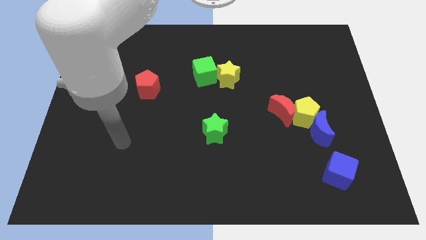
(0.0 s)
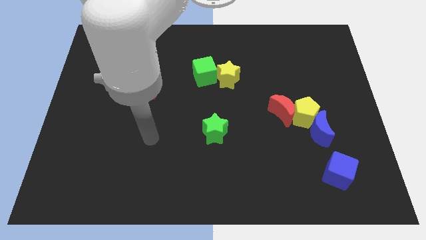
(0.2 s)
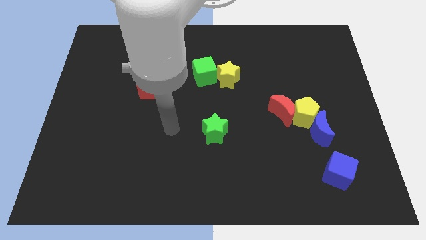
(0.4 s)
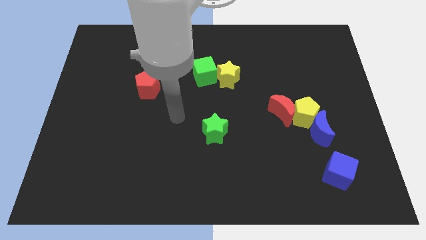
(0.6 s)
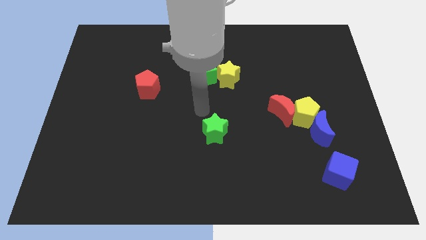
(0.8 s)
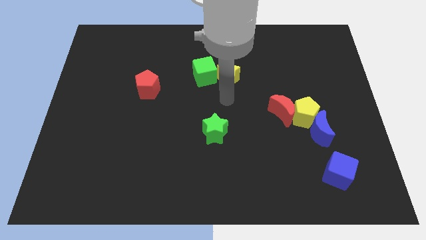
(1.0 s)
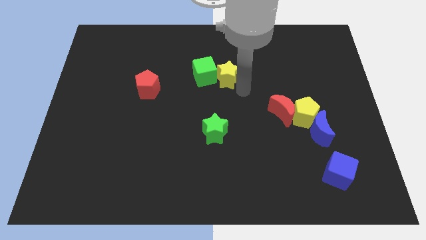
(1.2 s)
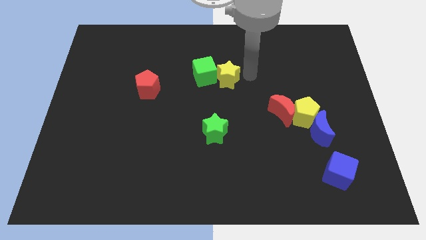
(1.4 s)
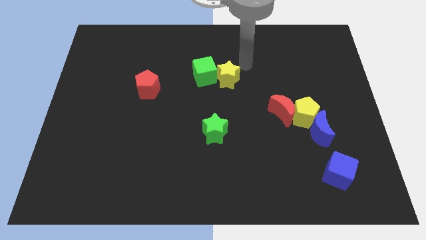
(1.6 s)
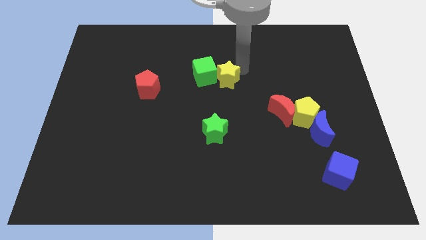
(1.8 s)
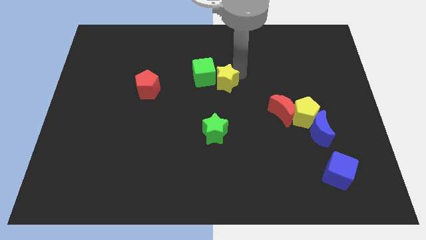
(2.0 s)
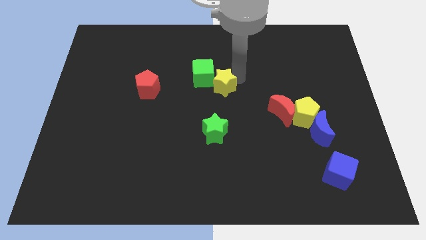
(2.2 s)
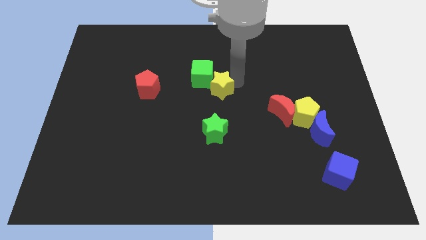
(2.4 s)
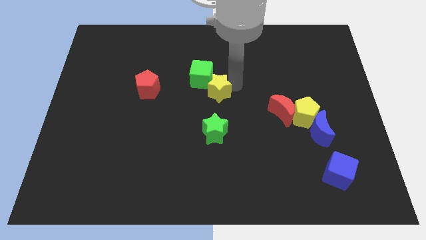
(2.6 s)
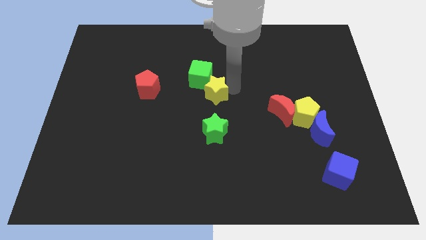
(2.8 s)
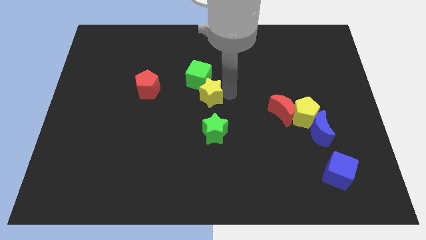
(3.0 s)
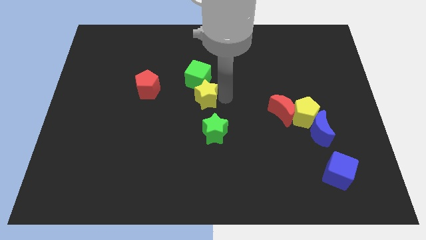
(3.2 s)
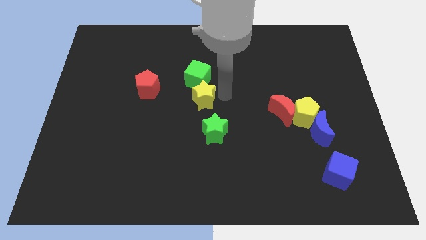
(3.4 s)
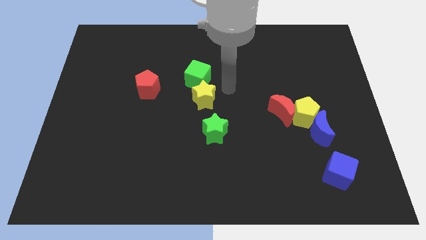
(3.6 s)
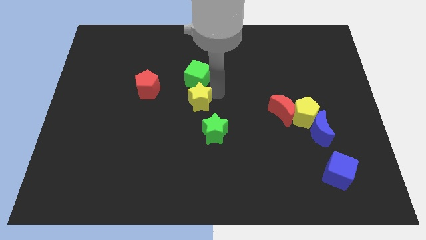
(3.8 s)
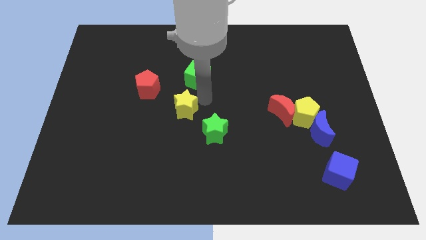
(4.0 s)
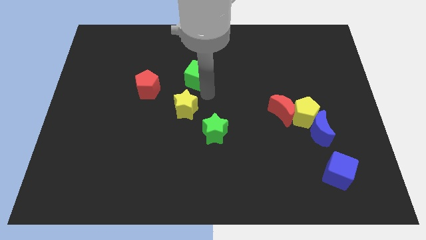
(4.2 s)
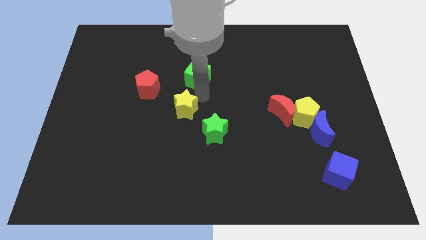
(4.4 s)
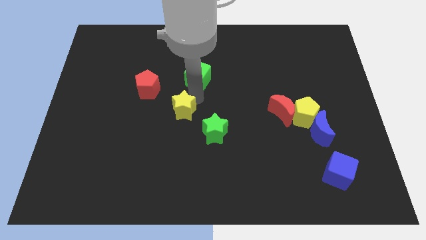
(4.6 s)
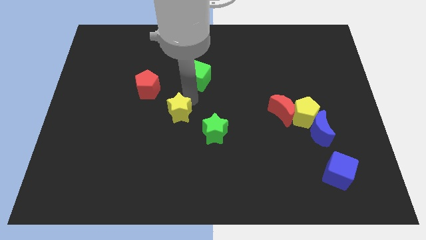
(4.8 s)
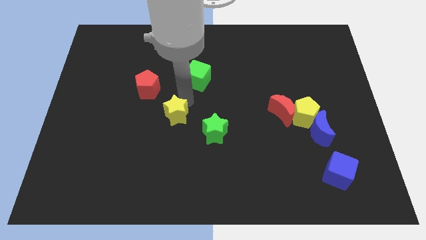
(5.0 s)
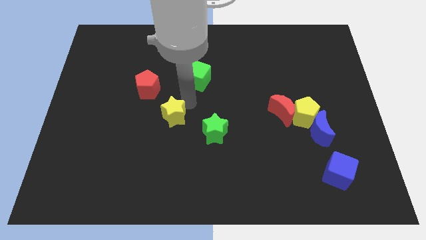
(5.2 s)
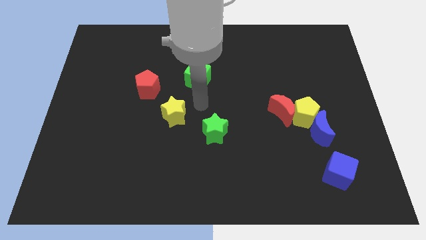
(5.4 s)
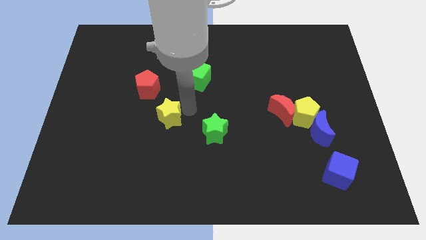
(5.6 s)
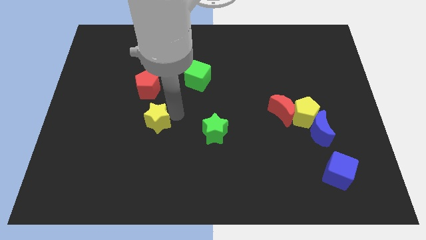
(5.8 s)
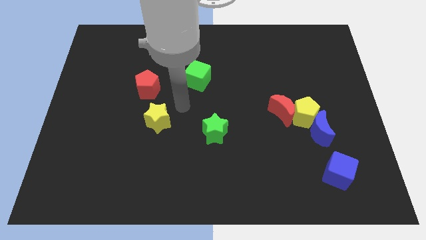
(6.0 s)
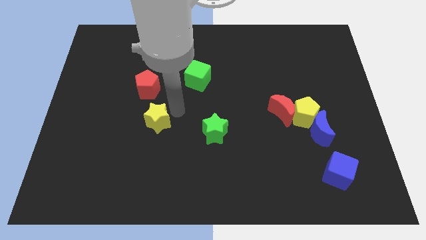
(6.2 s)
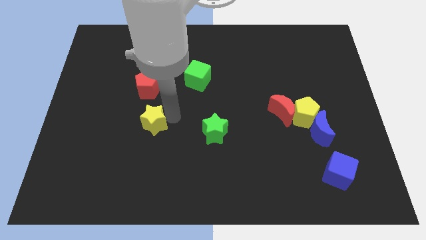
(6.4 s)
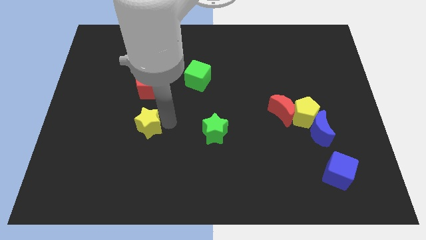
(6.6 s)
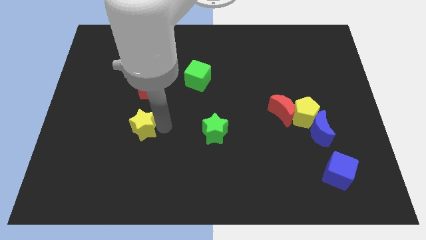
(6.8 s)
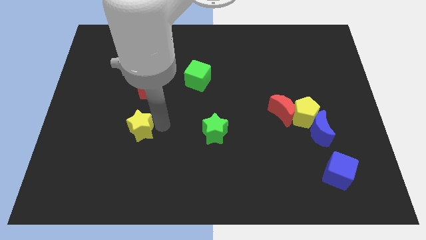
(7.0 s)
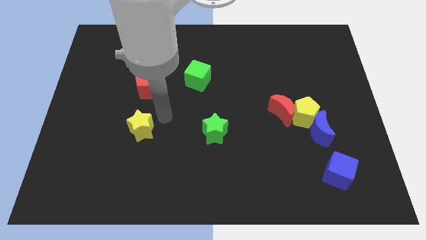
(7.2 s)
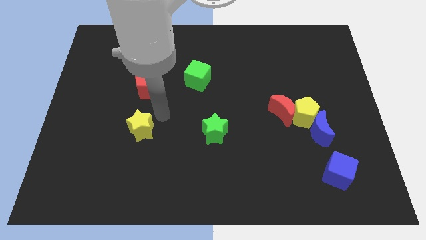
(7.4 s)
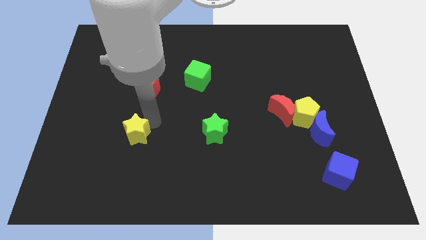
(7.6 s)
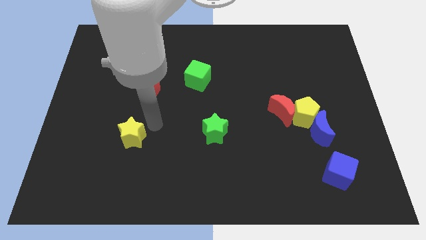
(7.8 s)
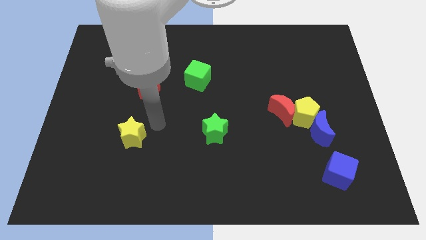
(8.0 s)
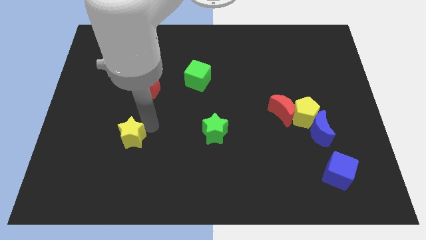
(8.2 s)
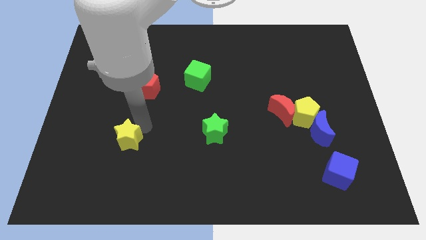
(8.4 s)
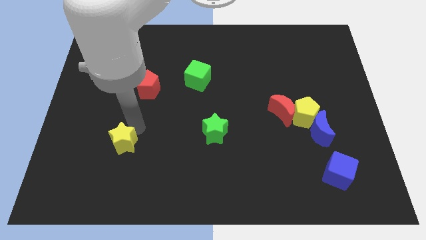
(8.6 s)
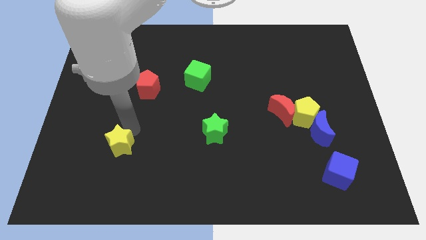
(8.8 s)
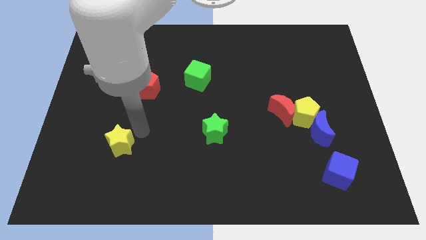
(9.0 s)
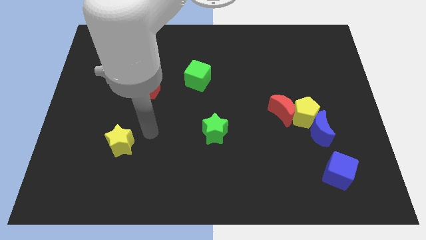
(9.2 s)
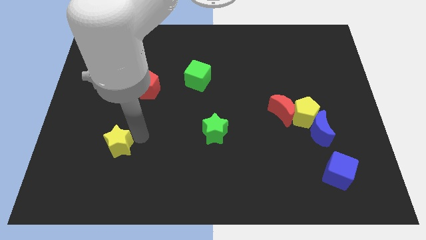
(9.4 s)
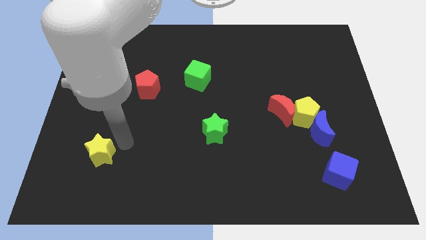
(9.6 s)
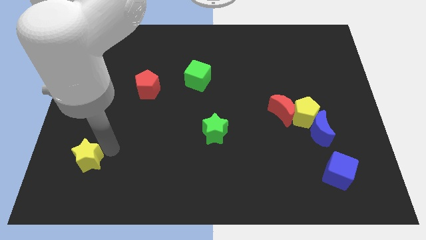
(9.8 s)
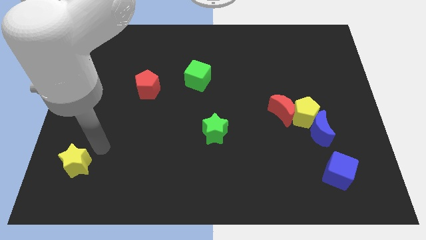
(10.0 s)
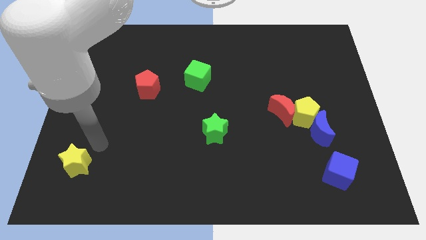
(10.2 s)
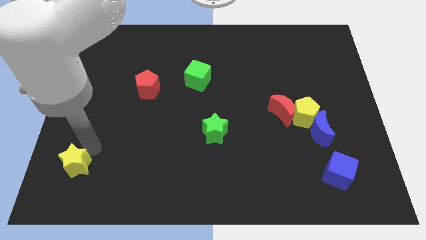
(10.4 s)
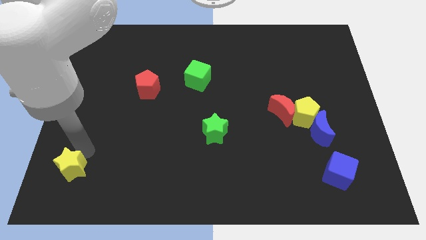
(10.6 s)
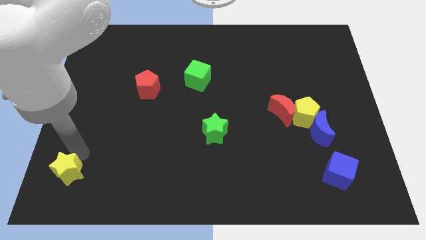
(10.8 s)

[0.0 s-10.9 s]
push the yellow star to the bottom left corner

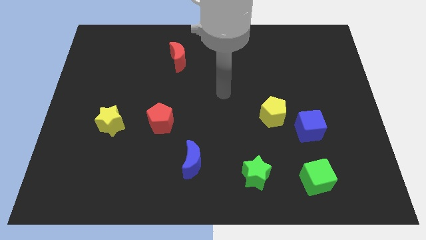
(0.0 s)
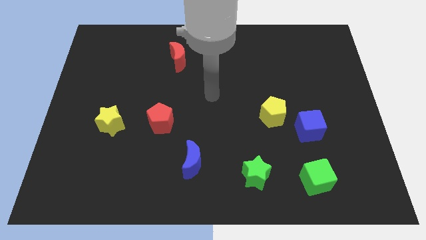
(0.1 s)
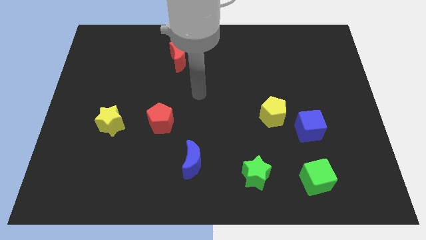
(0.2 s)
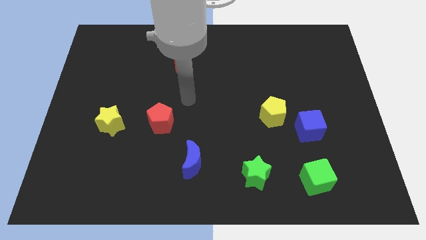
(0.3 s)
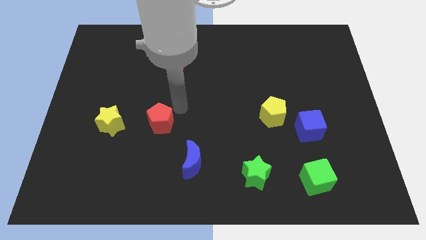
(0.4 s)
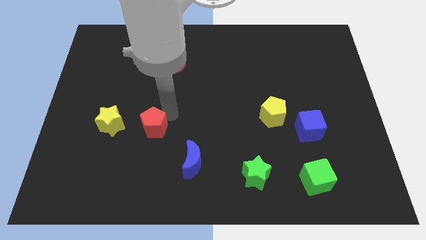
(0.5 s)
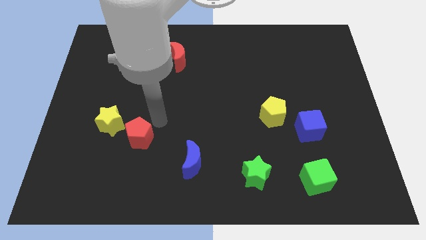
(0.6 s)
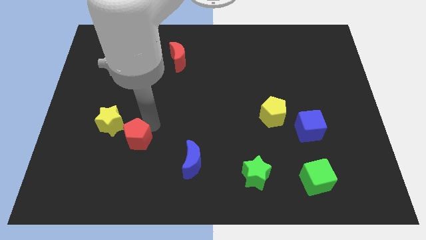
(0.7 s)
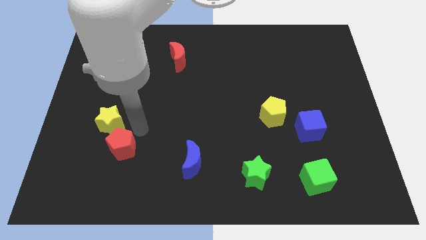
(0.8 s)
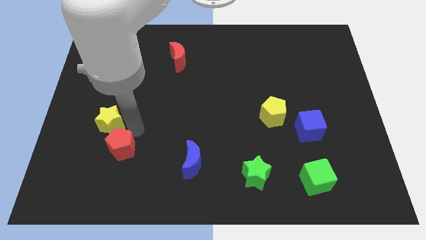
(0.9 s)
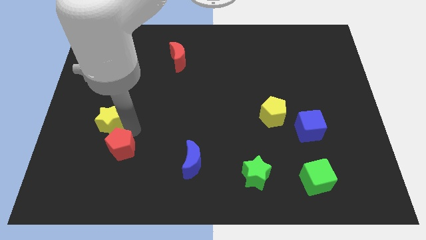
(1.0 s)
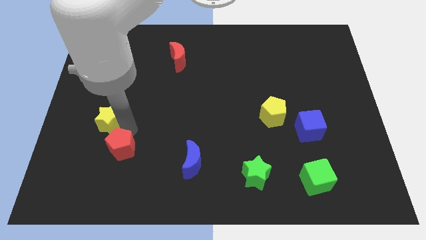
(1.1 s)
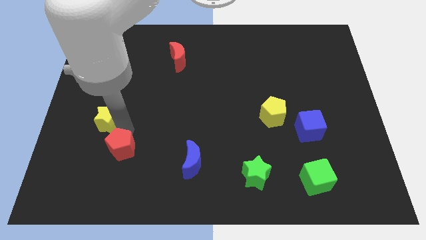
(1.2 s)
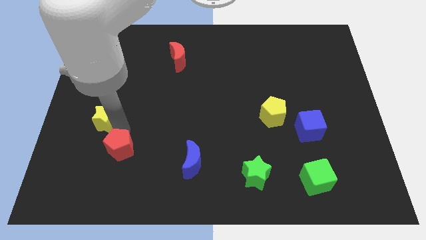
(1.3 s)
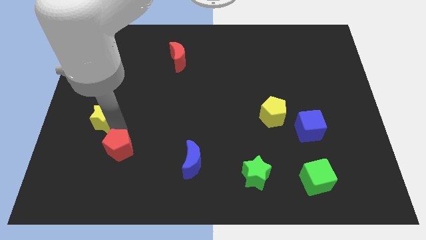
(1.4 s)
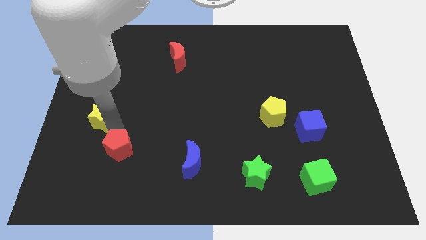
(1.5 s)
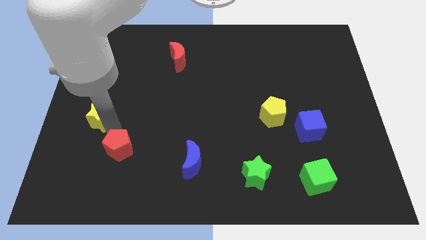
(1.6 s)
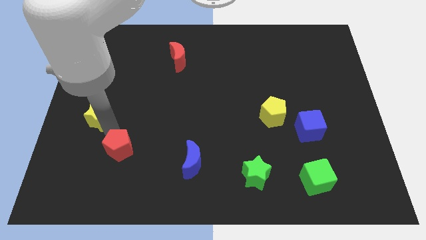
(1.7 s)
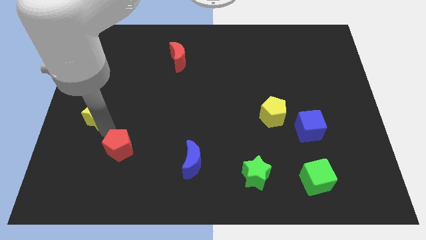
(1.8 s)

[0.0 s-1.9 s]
move the yellow star to the center left
